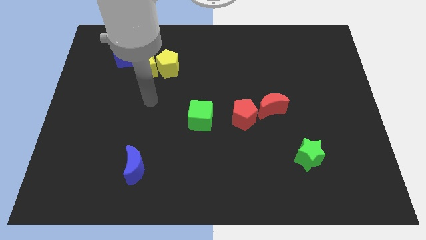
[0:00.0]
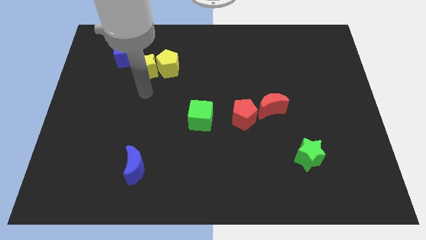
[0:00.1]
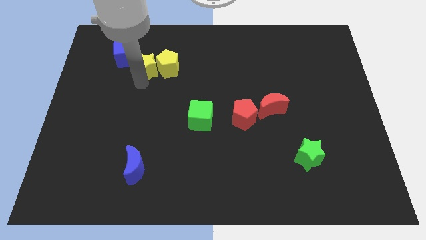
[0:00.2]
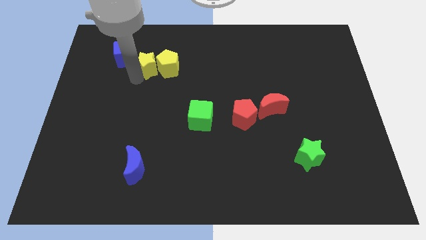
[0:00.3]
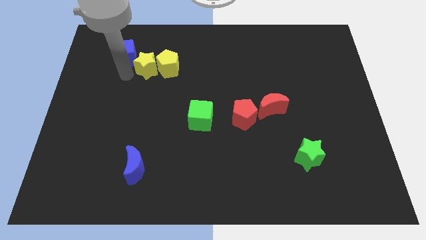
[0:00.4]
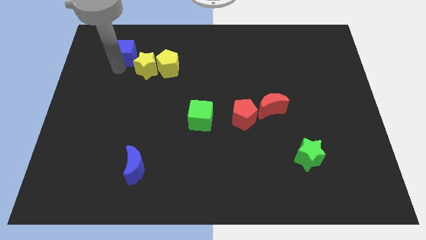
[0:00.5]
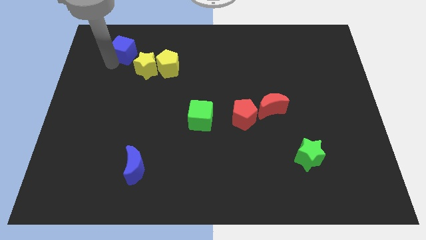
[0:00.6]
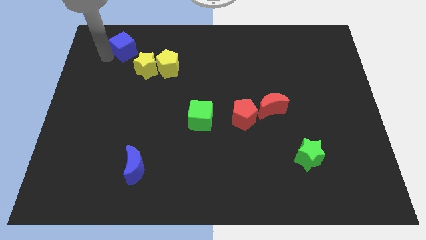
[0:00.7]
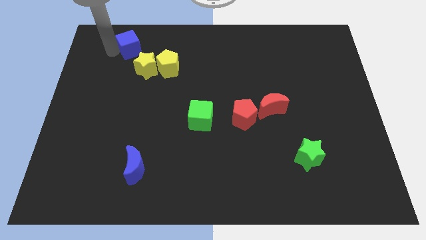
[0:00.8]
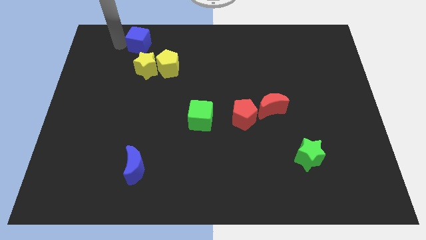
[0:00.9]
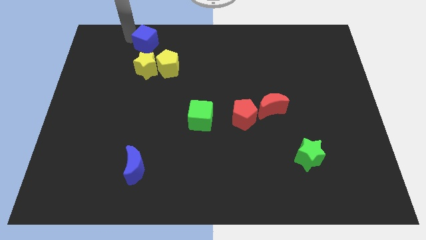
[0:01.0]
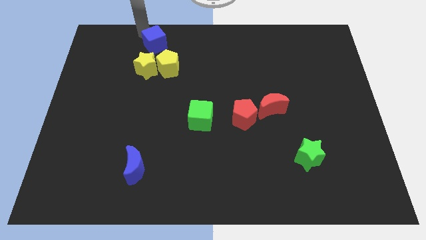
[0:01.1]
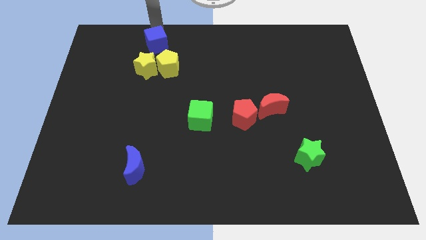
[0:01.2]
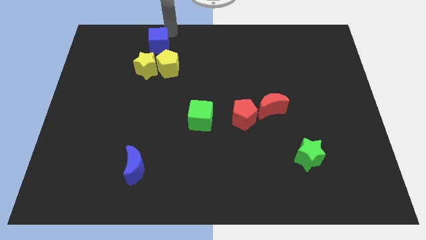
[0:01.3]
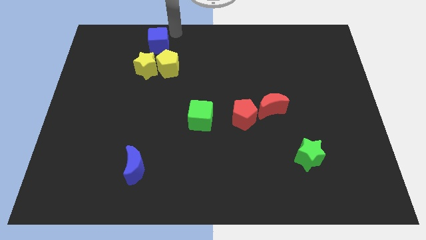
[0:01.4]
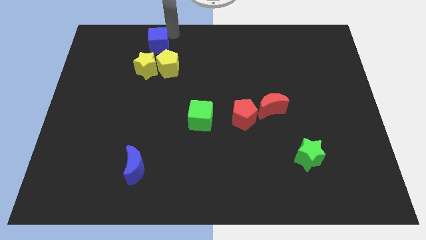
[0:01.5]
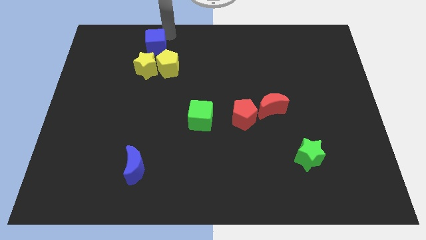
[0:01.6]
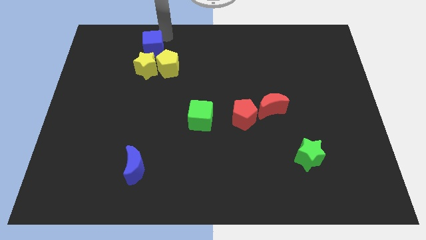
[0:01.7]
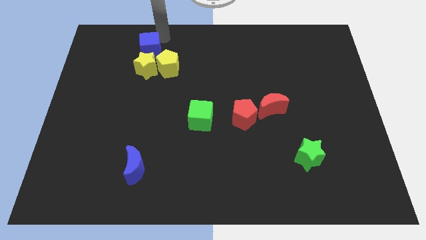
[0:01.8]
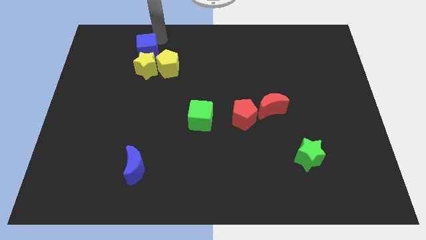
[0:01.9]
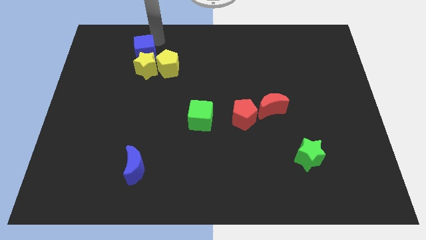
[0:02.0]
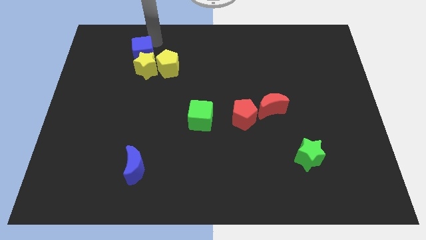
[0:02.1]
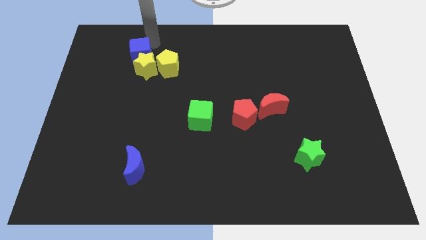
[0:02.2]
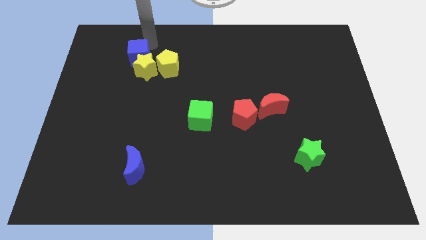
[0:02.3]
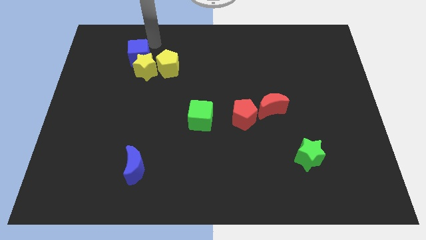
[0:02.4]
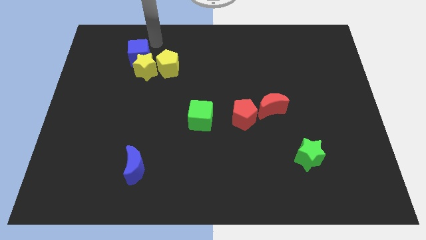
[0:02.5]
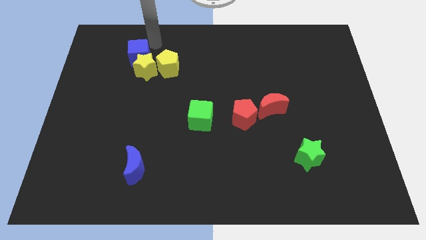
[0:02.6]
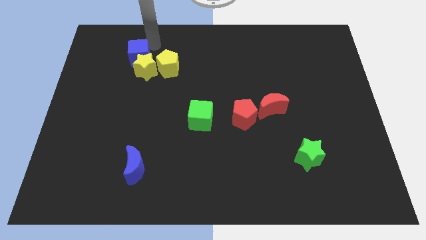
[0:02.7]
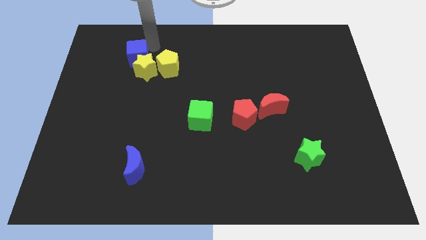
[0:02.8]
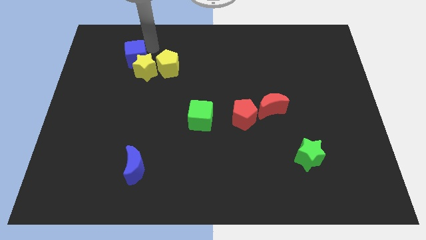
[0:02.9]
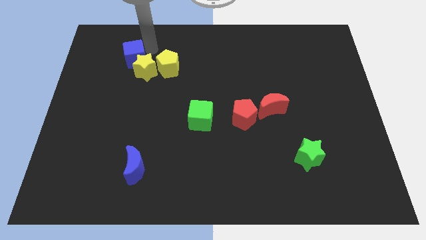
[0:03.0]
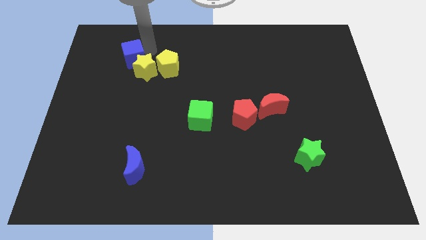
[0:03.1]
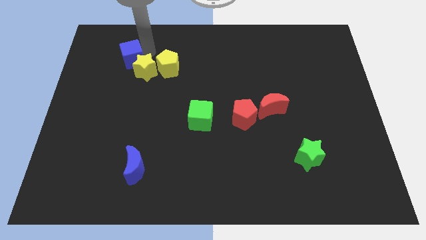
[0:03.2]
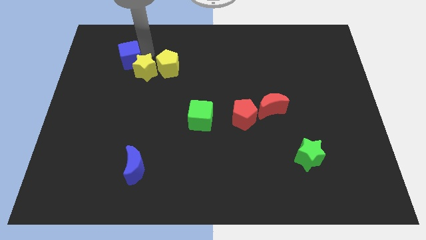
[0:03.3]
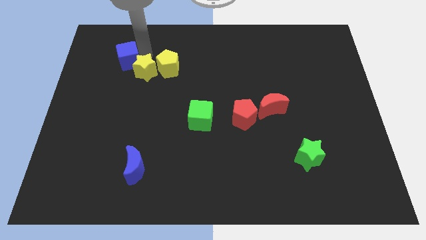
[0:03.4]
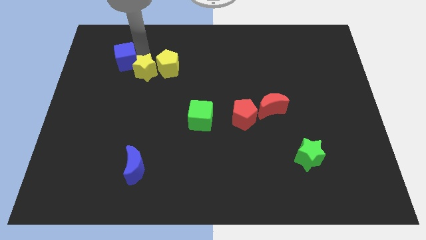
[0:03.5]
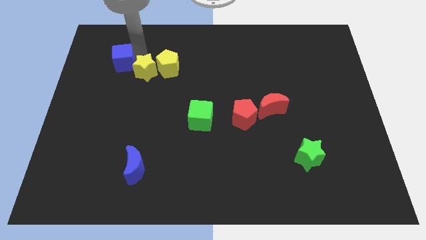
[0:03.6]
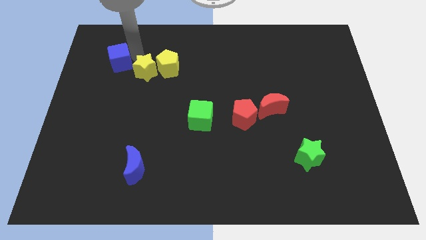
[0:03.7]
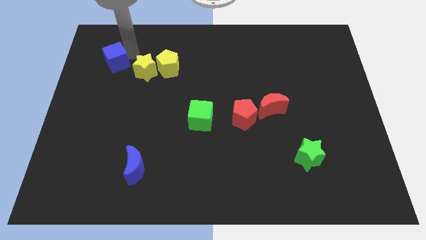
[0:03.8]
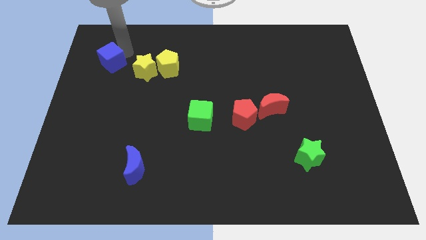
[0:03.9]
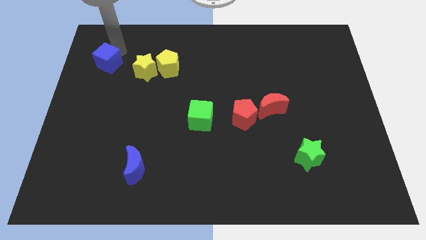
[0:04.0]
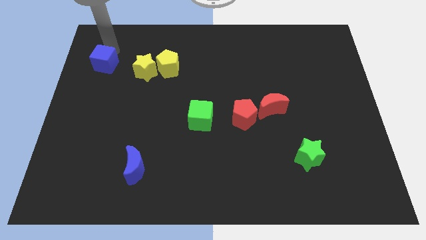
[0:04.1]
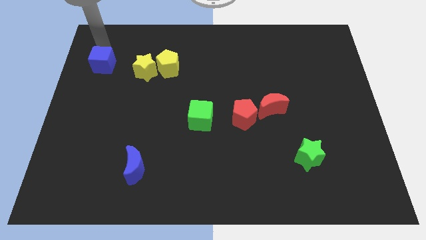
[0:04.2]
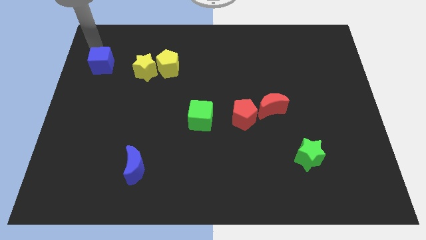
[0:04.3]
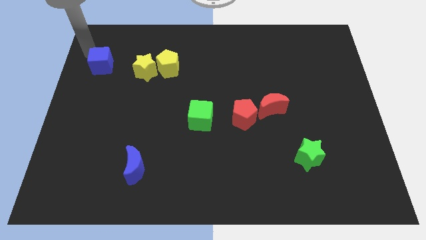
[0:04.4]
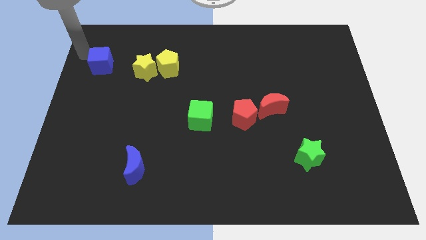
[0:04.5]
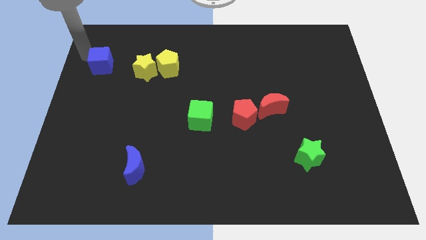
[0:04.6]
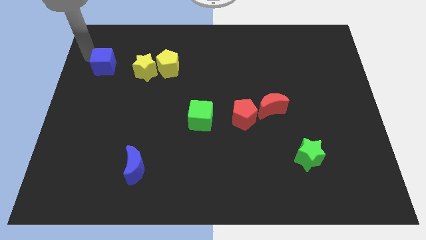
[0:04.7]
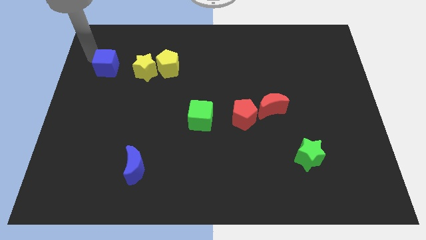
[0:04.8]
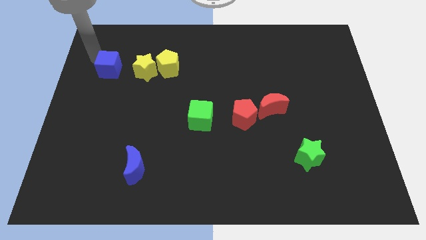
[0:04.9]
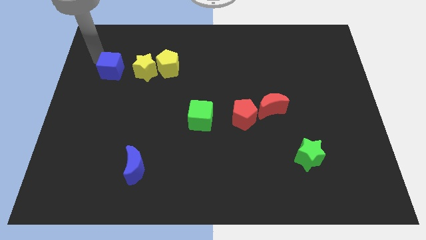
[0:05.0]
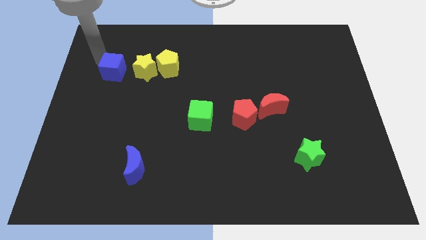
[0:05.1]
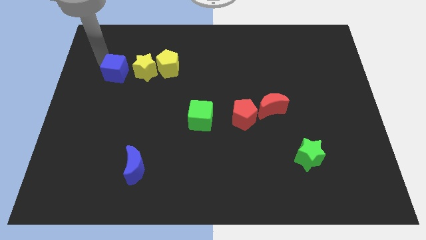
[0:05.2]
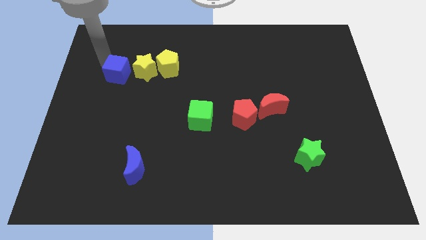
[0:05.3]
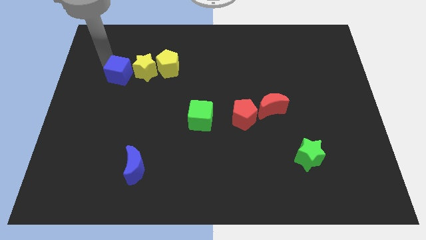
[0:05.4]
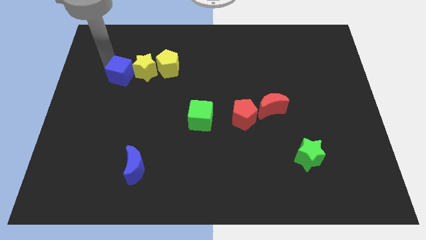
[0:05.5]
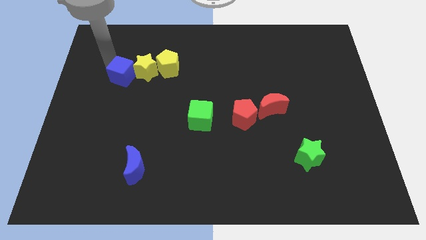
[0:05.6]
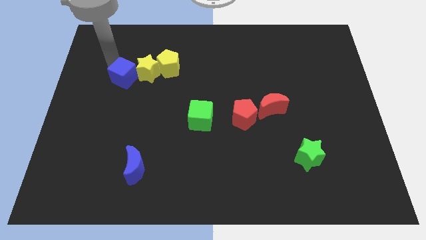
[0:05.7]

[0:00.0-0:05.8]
slide the blue cube down a bit

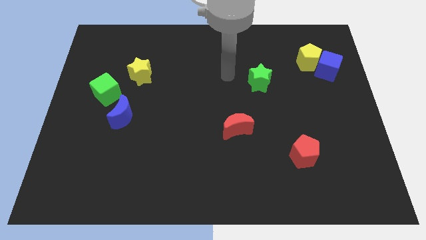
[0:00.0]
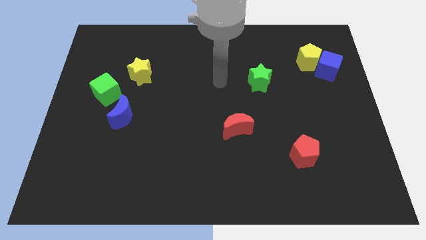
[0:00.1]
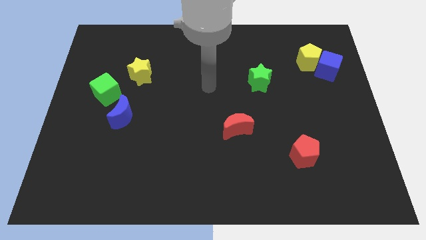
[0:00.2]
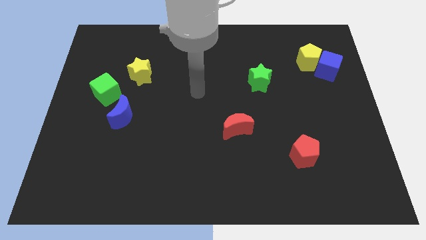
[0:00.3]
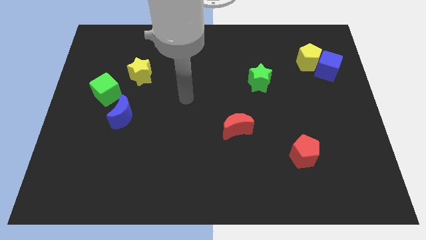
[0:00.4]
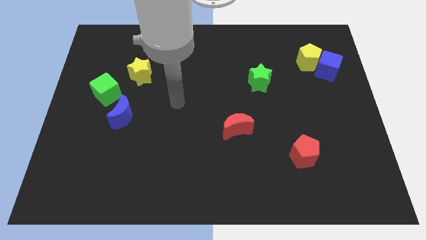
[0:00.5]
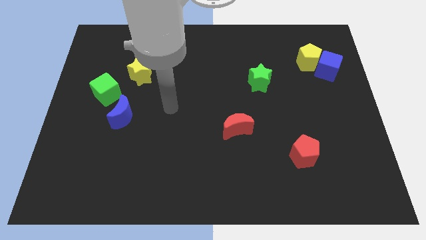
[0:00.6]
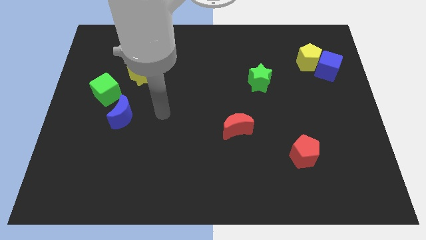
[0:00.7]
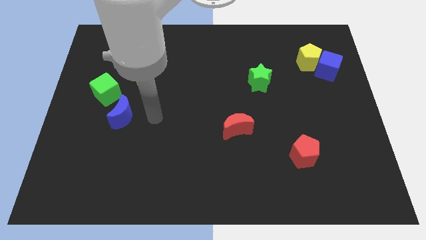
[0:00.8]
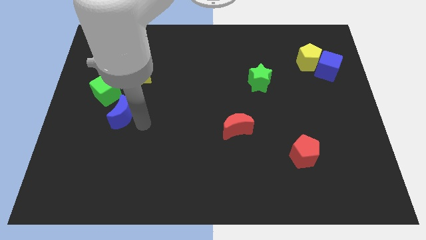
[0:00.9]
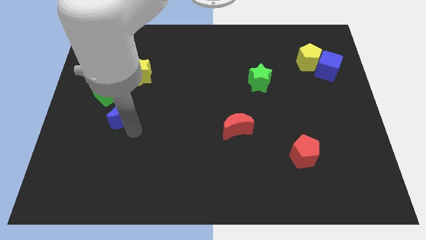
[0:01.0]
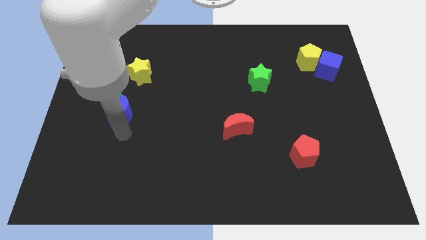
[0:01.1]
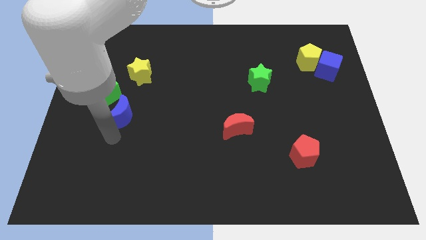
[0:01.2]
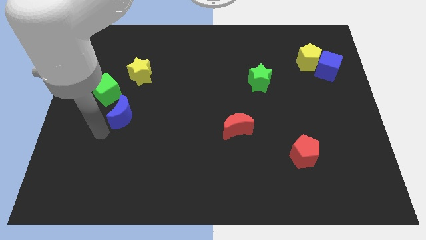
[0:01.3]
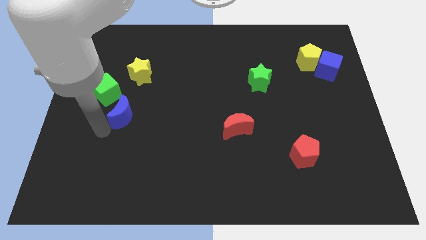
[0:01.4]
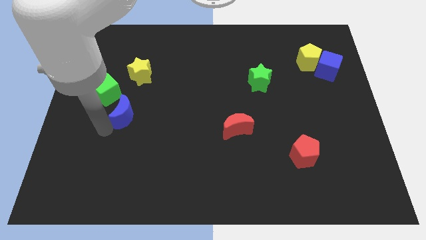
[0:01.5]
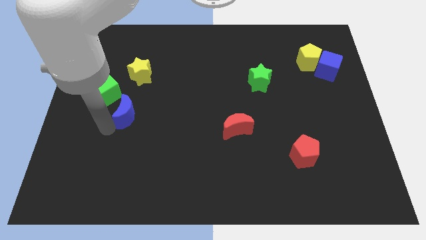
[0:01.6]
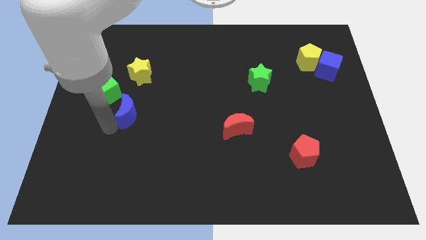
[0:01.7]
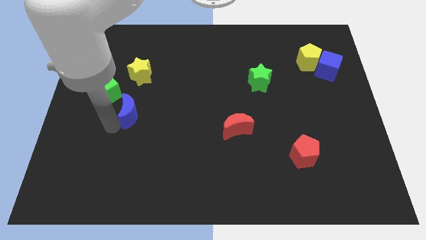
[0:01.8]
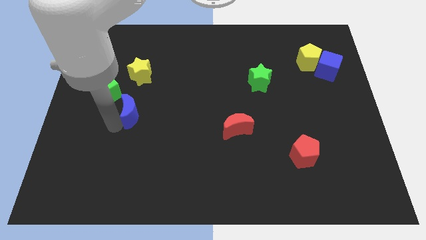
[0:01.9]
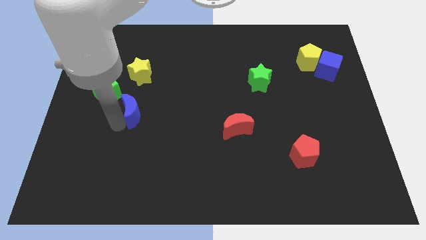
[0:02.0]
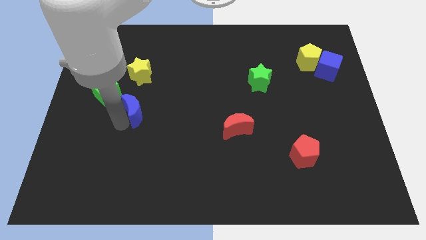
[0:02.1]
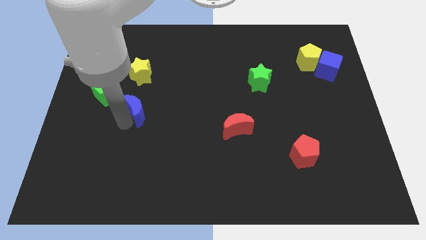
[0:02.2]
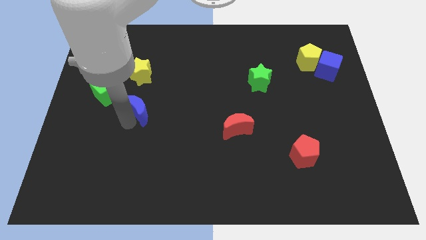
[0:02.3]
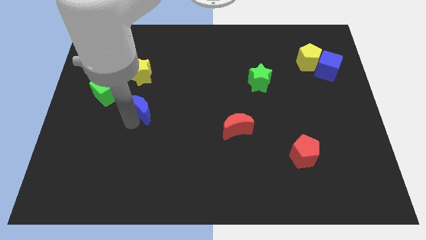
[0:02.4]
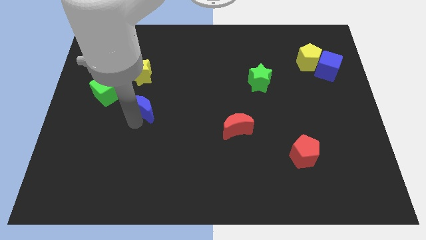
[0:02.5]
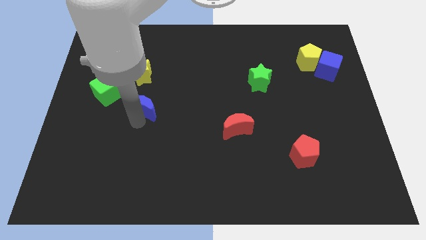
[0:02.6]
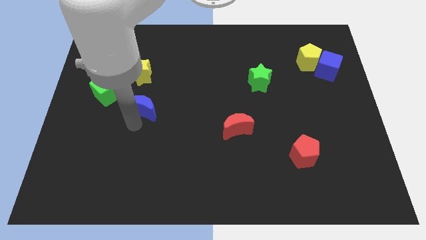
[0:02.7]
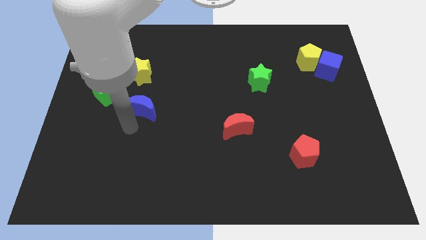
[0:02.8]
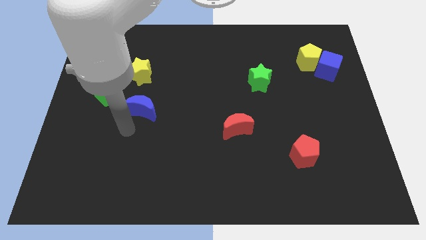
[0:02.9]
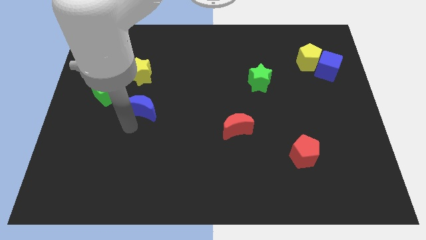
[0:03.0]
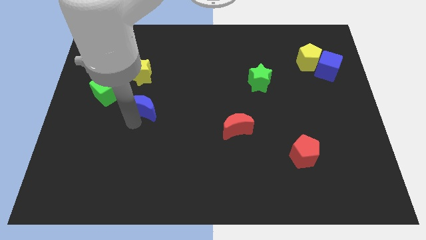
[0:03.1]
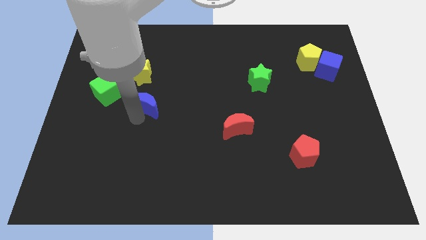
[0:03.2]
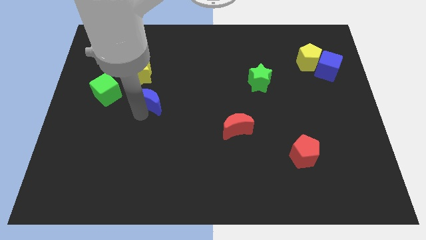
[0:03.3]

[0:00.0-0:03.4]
push the blue moon a little up and then right
